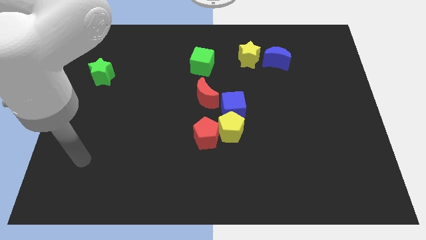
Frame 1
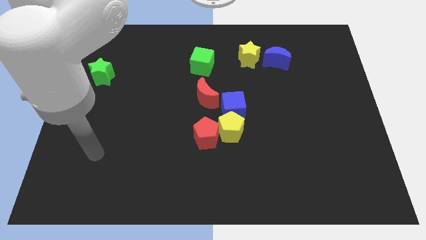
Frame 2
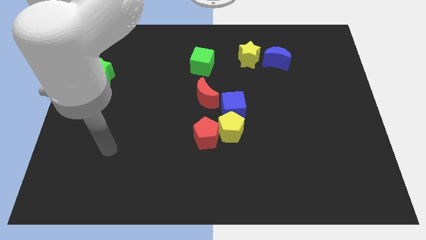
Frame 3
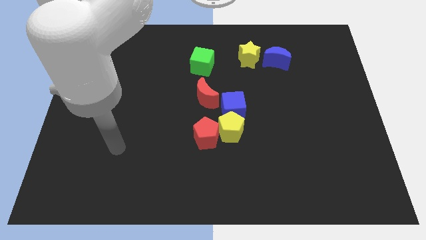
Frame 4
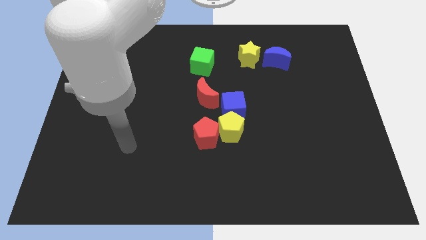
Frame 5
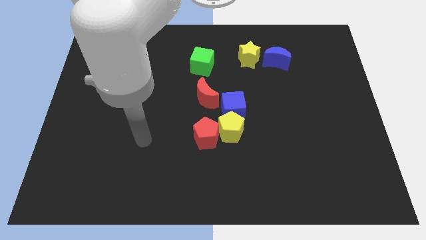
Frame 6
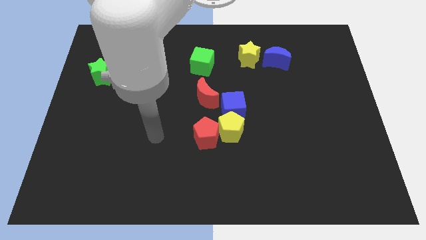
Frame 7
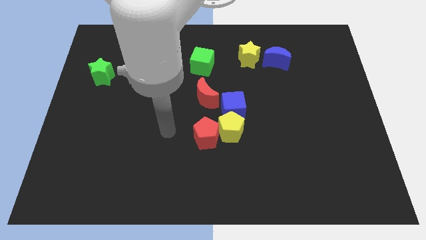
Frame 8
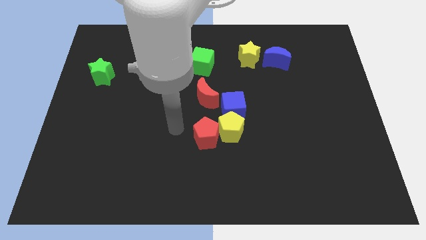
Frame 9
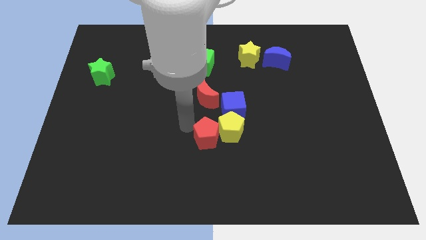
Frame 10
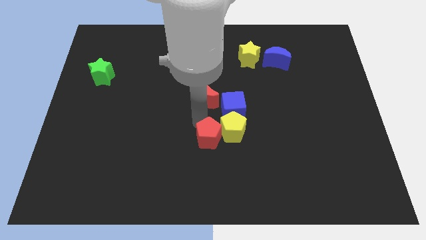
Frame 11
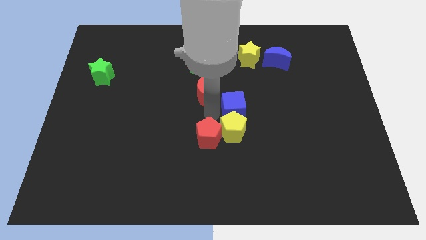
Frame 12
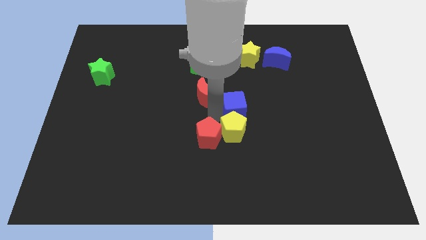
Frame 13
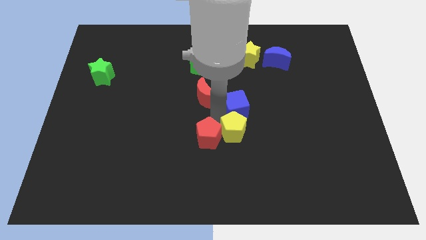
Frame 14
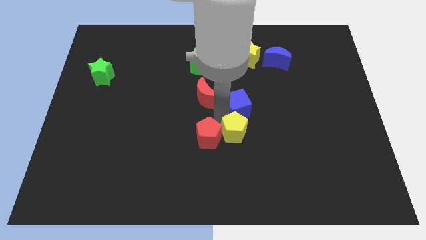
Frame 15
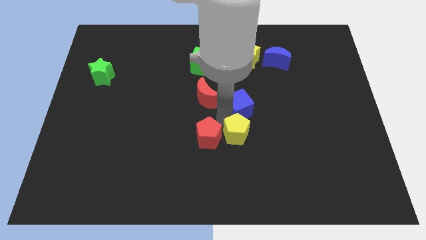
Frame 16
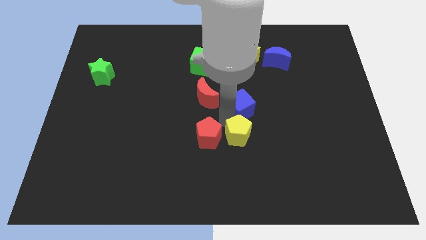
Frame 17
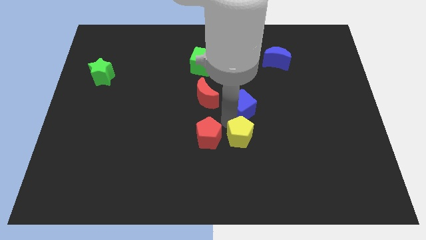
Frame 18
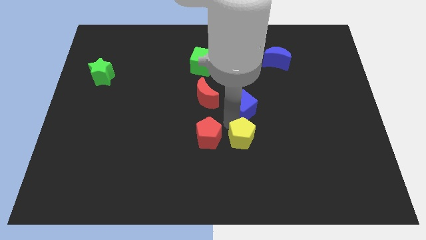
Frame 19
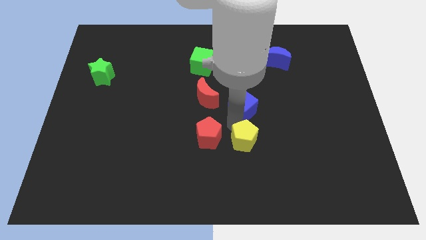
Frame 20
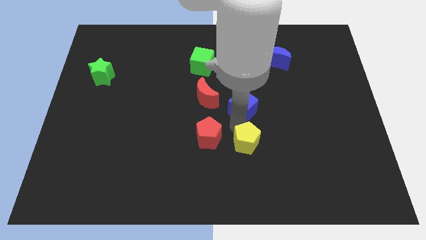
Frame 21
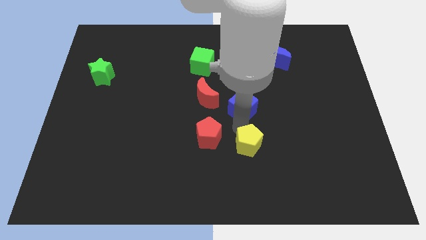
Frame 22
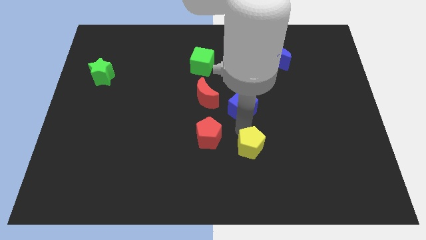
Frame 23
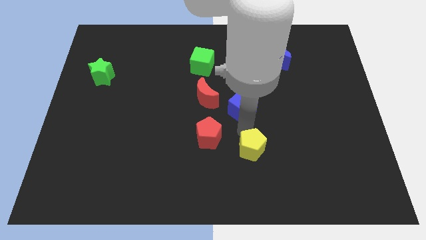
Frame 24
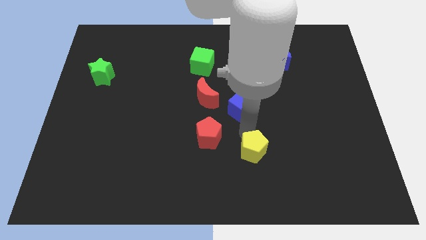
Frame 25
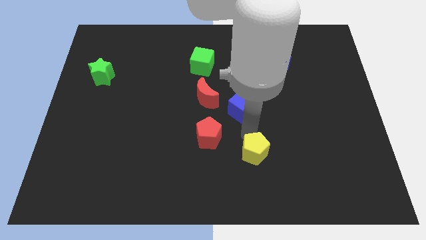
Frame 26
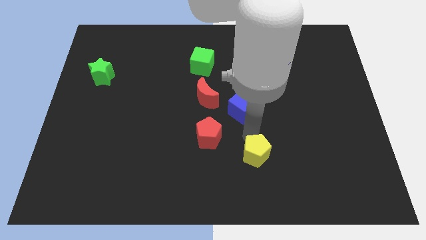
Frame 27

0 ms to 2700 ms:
pull the yellow pentagon apart from the red pentagon and blue cube

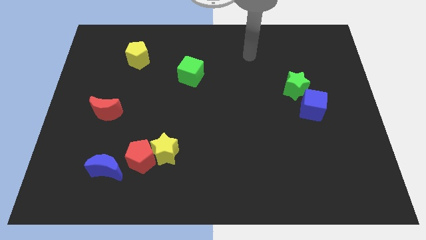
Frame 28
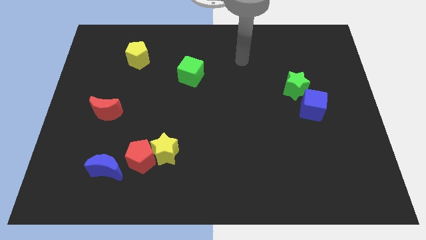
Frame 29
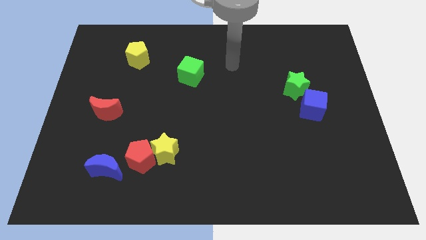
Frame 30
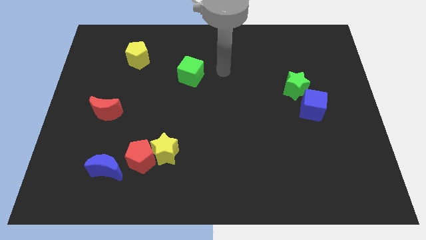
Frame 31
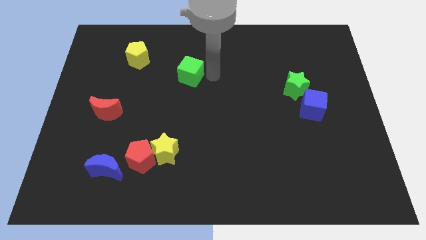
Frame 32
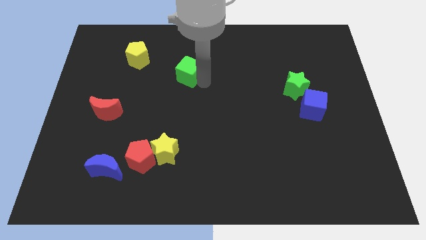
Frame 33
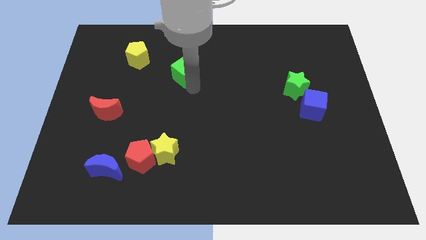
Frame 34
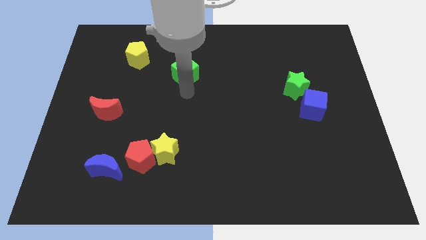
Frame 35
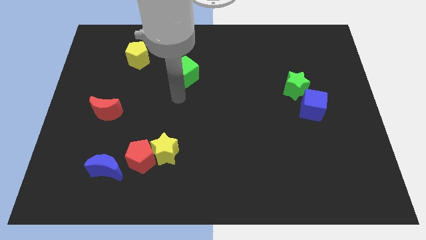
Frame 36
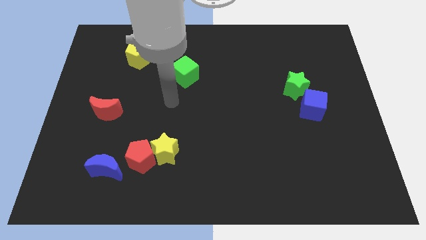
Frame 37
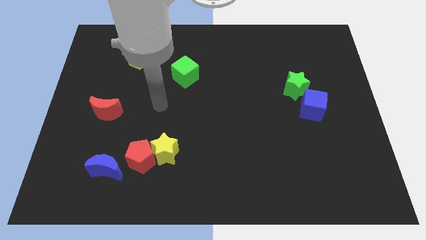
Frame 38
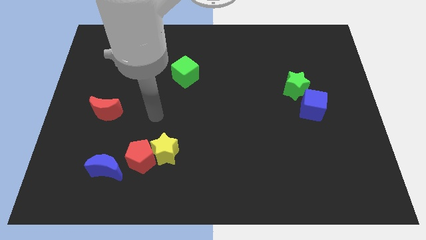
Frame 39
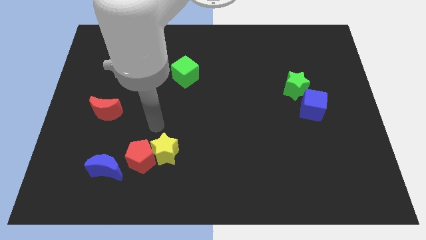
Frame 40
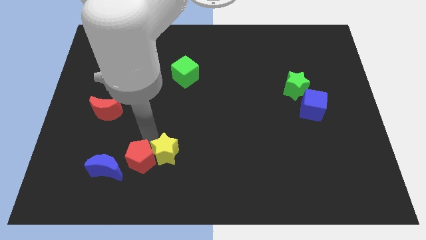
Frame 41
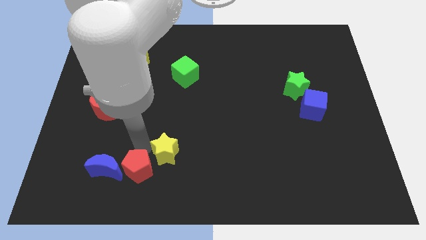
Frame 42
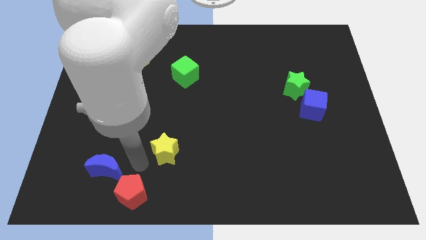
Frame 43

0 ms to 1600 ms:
separate the yellow star from the red pentagon

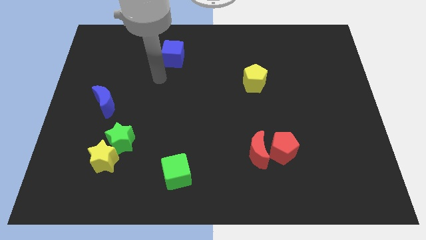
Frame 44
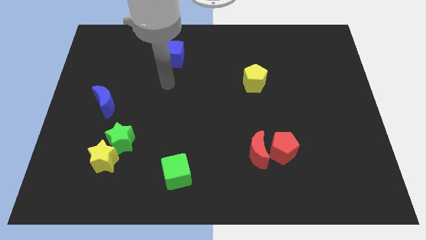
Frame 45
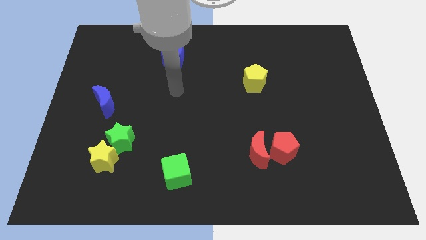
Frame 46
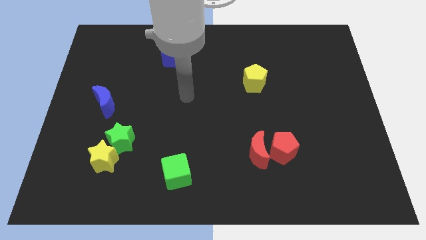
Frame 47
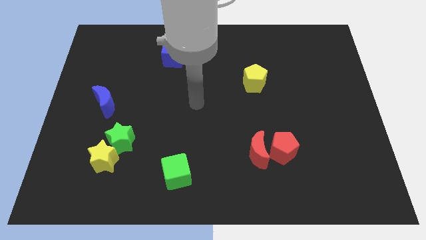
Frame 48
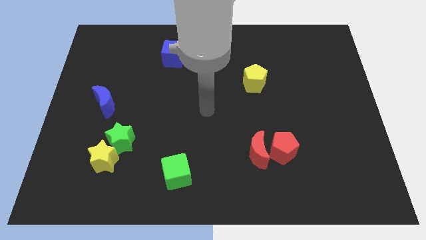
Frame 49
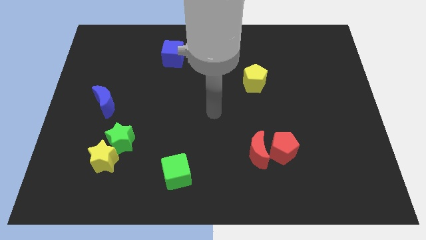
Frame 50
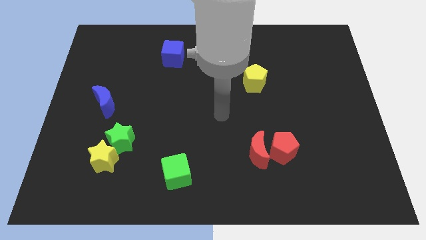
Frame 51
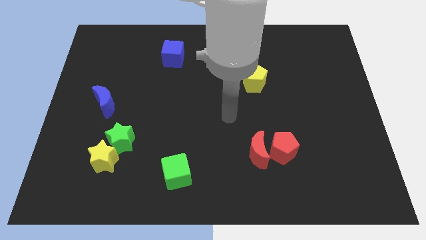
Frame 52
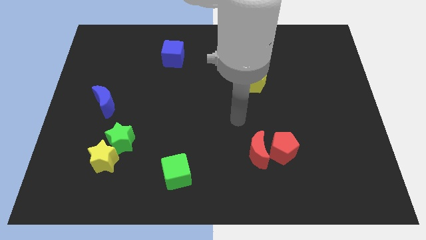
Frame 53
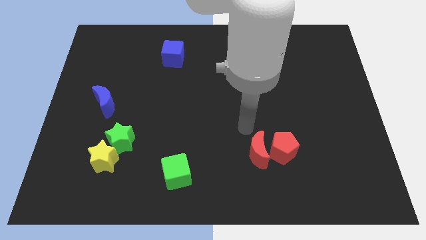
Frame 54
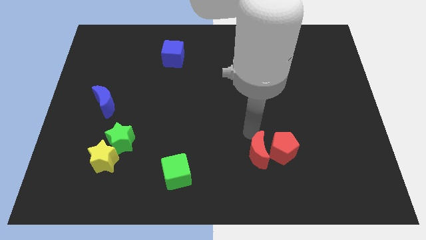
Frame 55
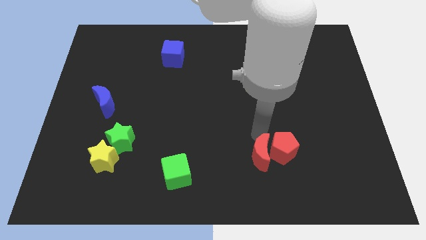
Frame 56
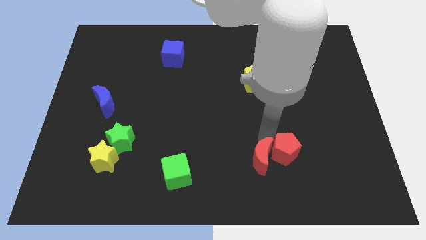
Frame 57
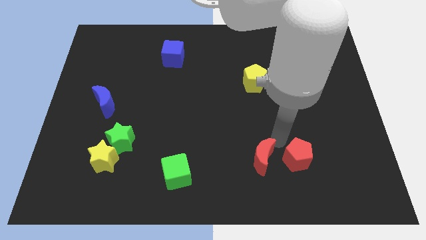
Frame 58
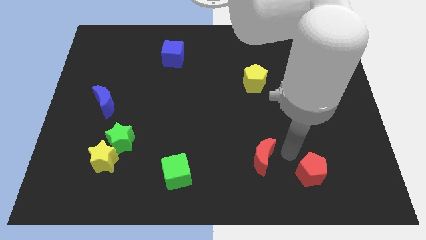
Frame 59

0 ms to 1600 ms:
separate the red moon from the red pentagon

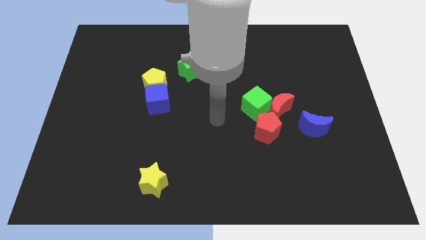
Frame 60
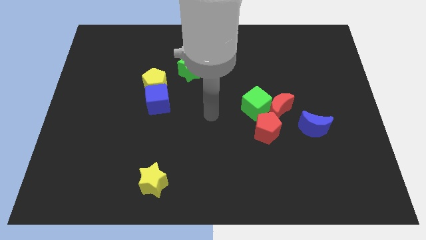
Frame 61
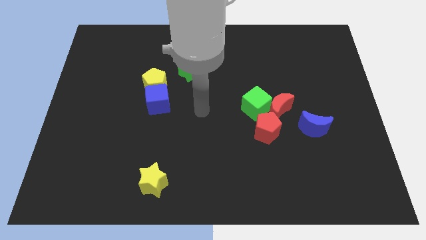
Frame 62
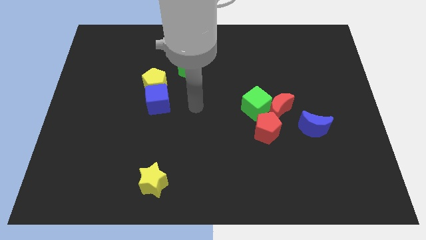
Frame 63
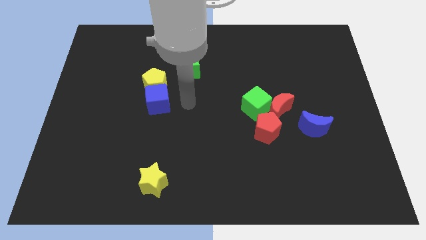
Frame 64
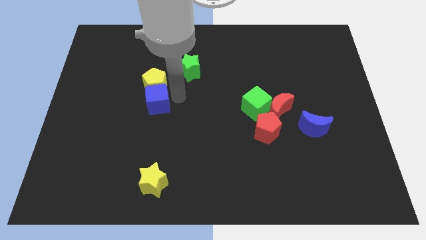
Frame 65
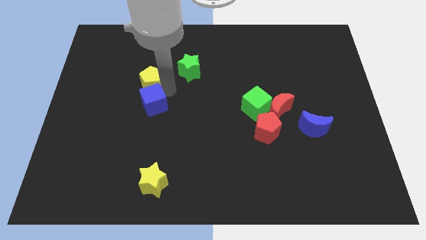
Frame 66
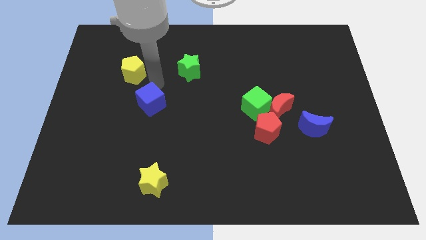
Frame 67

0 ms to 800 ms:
separate the blue cube from the yellow pentagon

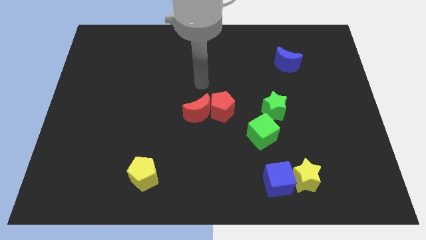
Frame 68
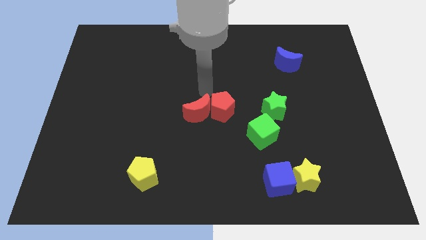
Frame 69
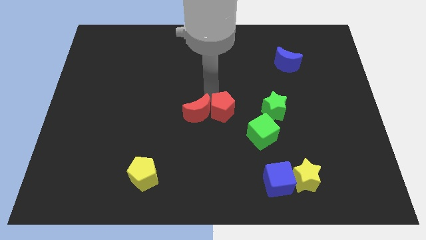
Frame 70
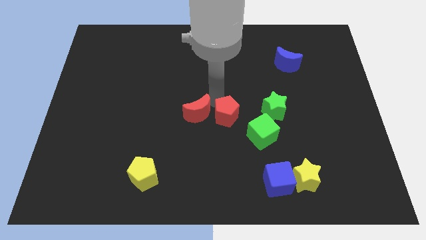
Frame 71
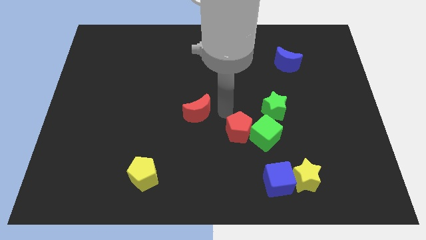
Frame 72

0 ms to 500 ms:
move the red moon away from the red pentagon

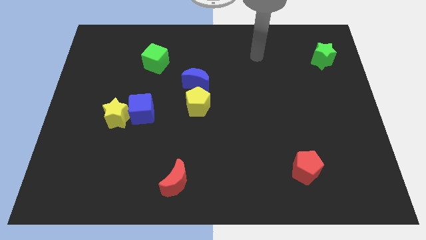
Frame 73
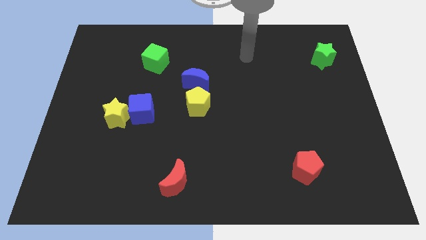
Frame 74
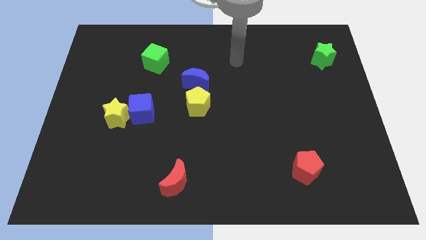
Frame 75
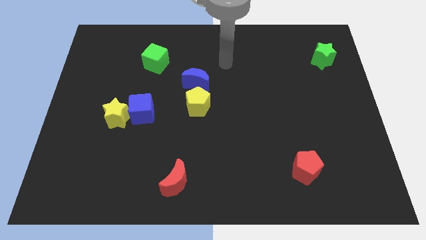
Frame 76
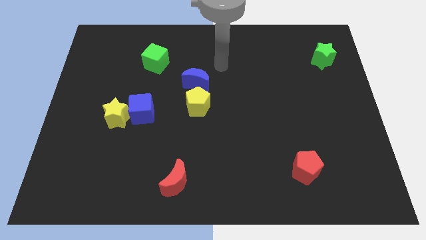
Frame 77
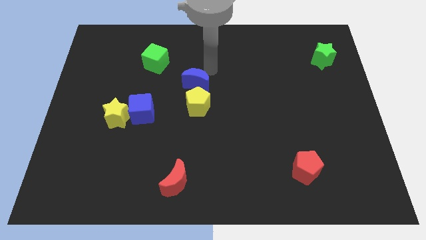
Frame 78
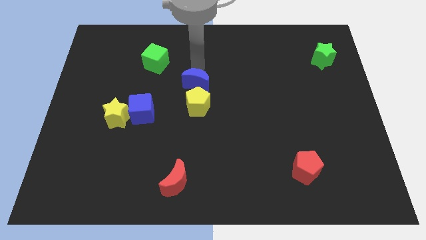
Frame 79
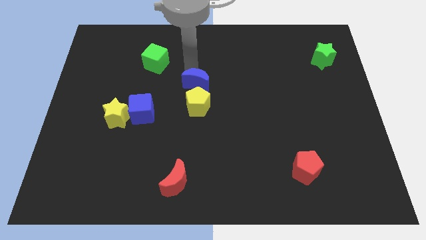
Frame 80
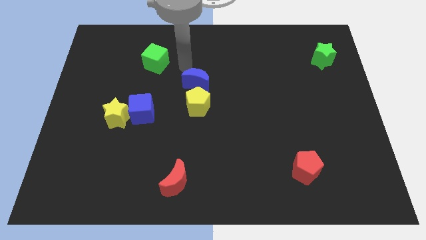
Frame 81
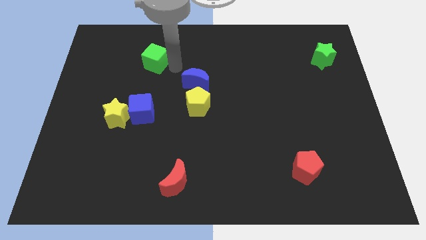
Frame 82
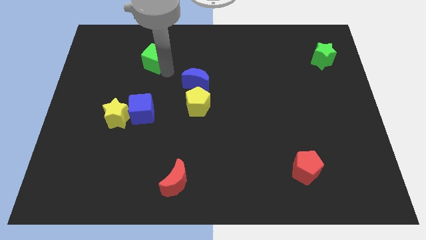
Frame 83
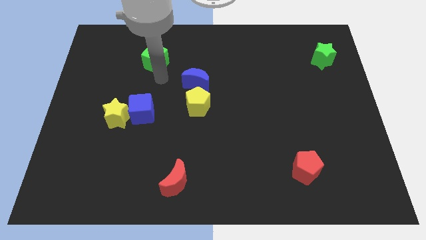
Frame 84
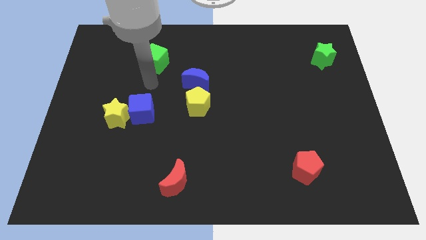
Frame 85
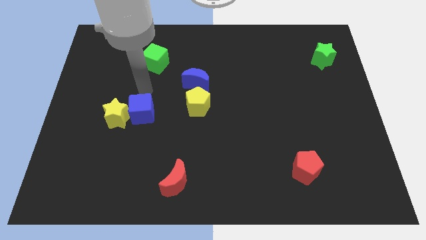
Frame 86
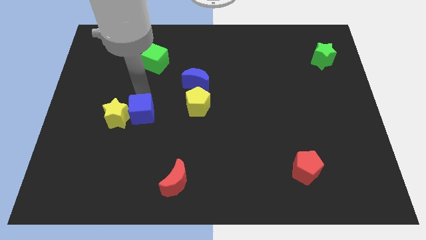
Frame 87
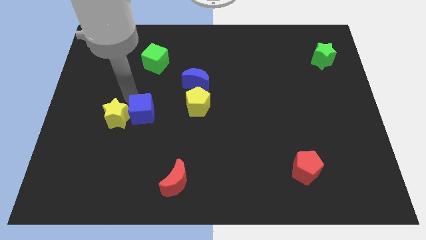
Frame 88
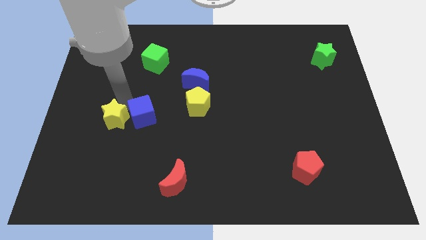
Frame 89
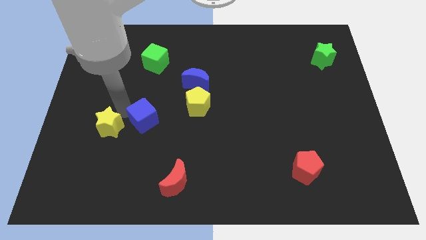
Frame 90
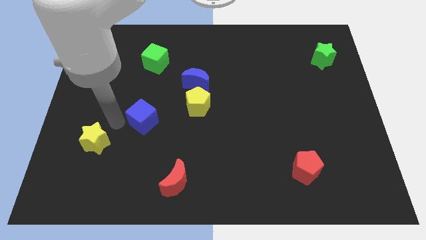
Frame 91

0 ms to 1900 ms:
separate the blue cube from the yellow star

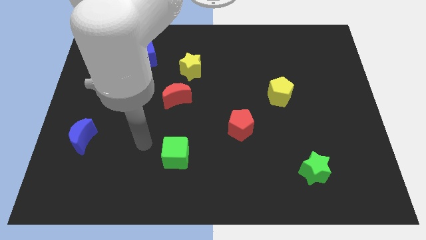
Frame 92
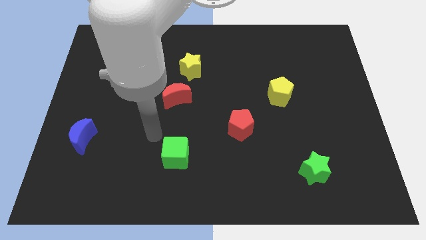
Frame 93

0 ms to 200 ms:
separate the red moon from the yellow star
